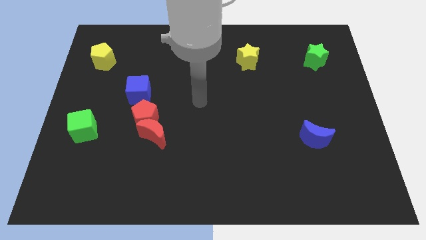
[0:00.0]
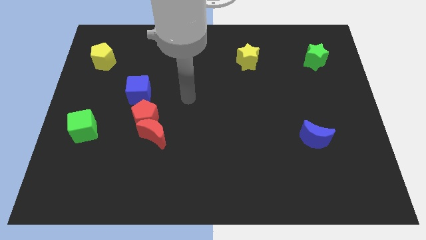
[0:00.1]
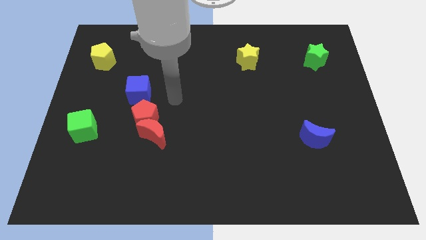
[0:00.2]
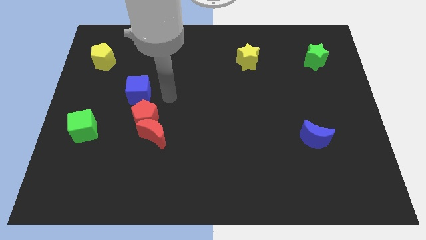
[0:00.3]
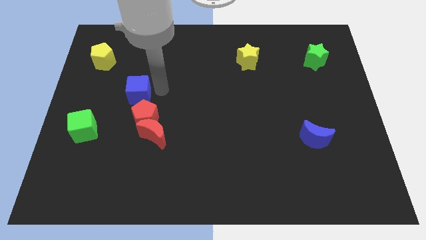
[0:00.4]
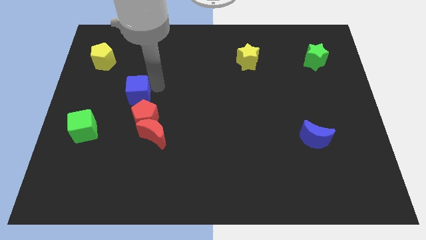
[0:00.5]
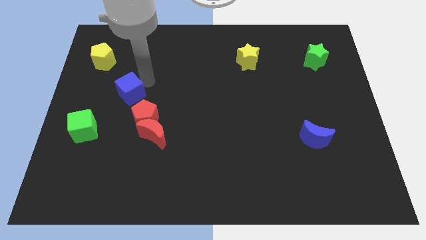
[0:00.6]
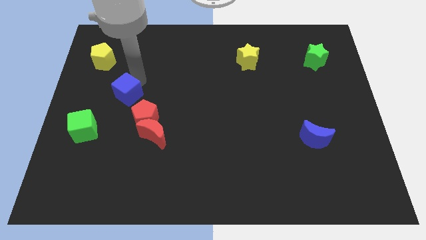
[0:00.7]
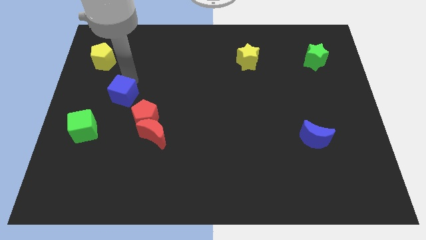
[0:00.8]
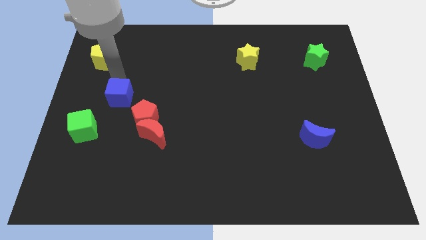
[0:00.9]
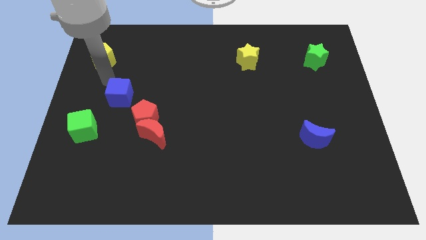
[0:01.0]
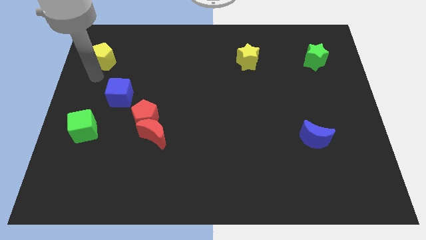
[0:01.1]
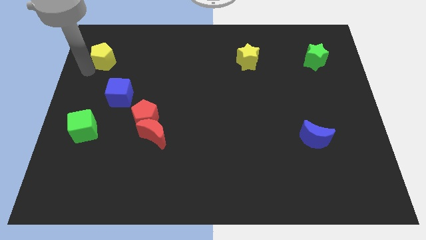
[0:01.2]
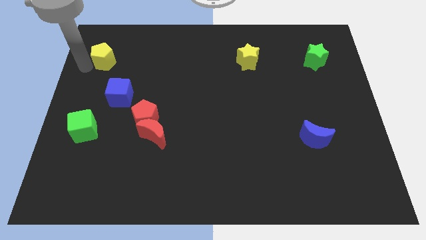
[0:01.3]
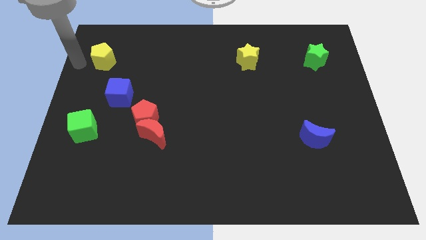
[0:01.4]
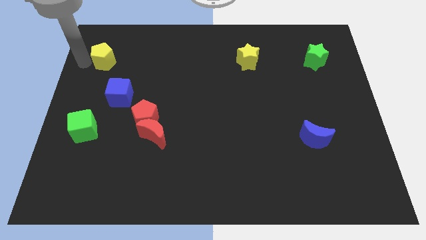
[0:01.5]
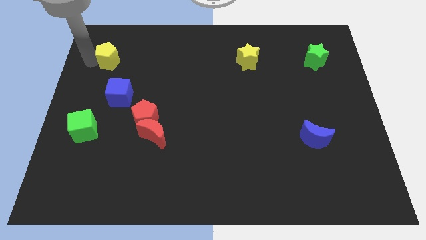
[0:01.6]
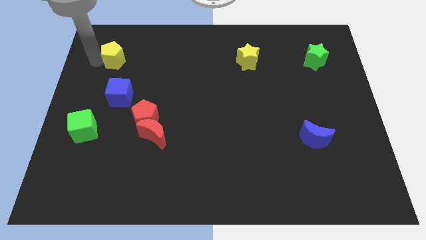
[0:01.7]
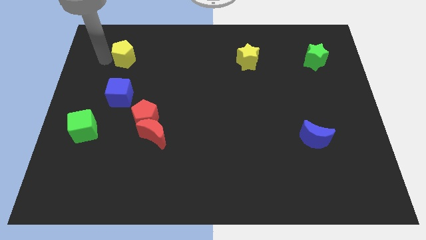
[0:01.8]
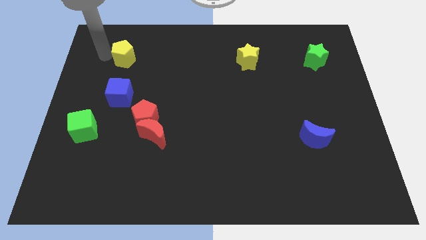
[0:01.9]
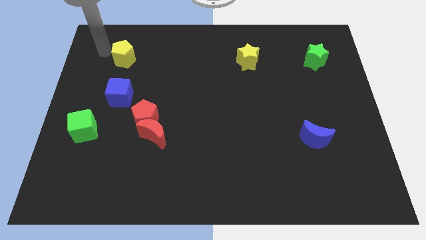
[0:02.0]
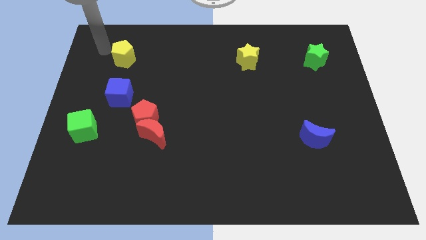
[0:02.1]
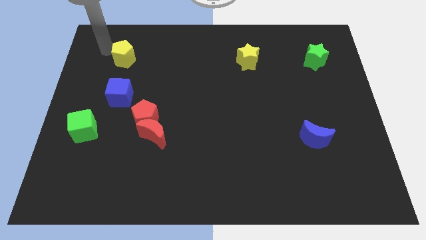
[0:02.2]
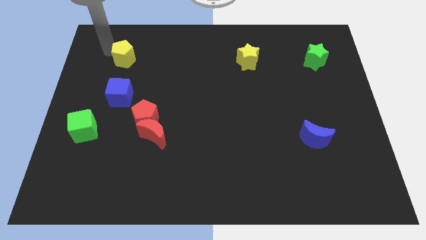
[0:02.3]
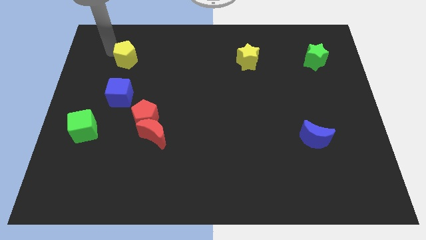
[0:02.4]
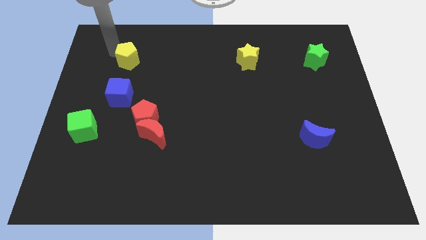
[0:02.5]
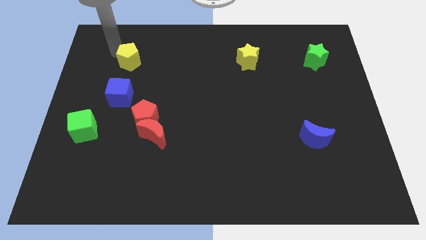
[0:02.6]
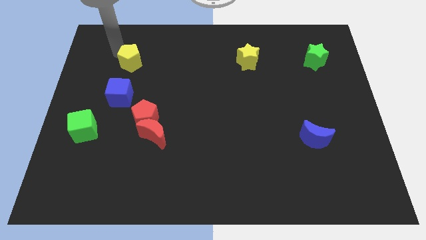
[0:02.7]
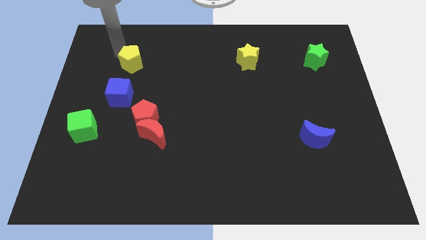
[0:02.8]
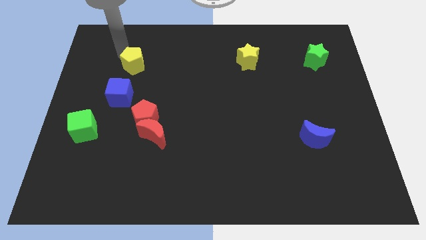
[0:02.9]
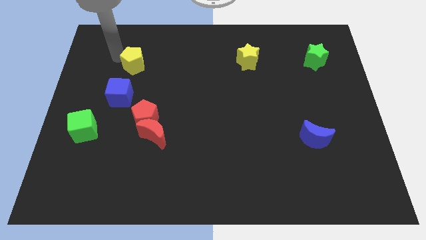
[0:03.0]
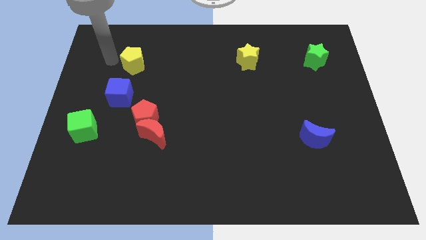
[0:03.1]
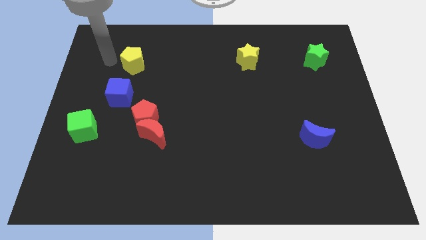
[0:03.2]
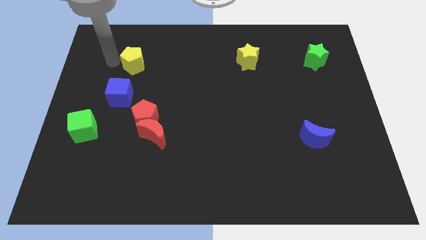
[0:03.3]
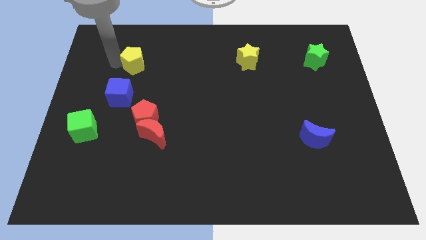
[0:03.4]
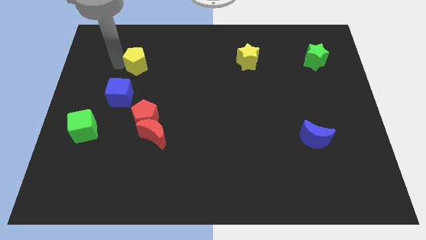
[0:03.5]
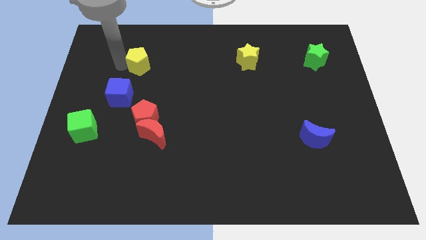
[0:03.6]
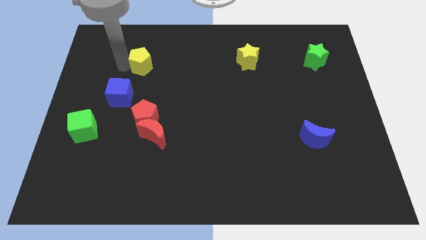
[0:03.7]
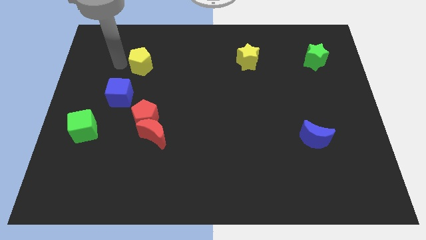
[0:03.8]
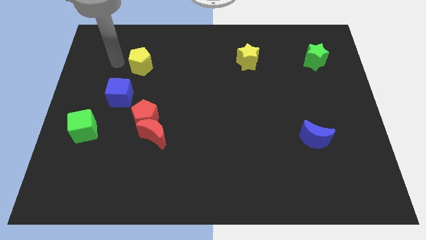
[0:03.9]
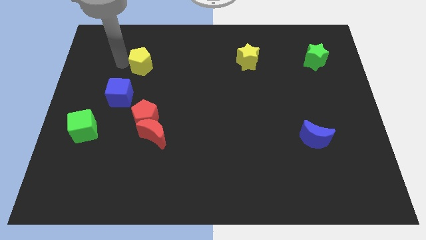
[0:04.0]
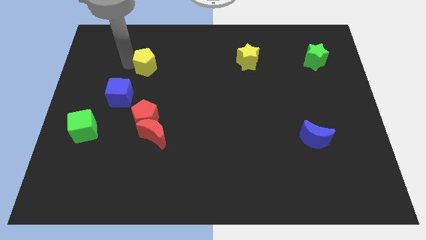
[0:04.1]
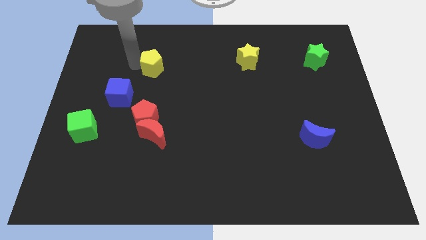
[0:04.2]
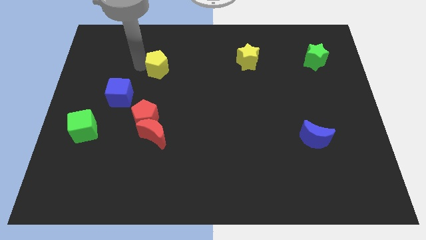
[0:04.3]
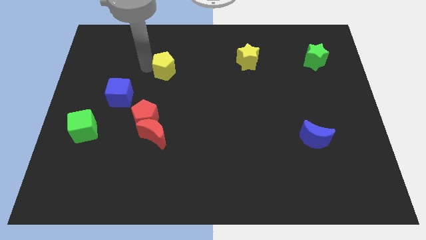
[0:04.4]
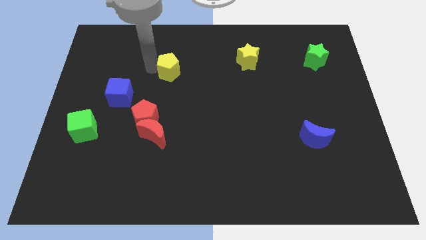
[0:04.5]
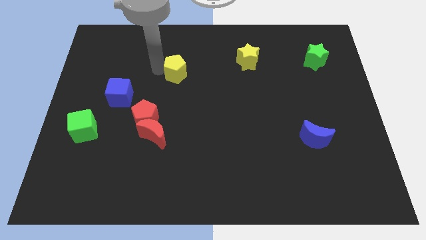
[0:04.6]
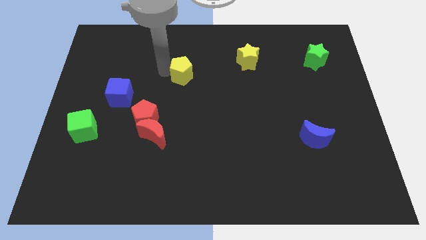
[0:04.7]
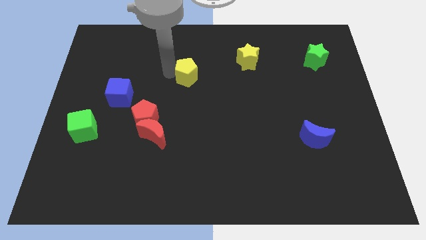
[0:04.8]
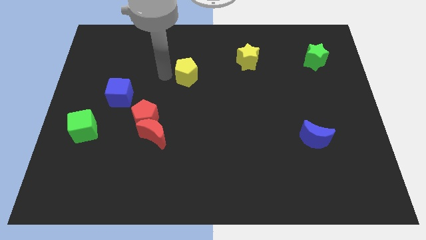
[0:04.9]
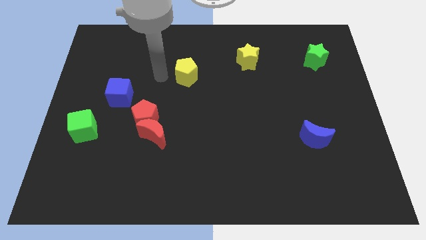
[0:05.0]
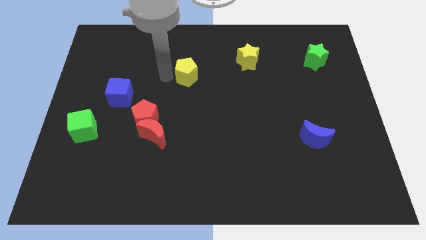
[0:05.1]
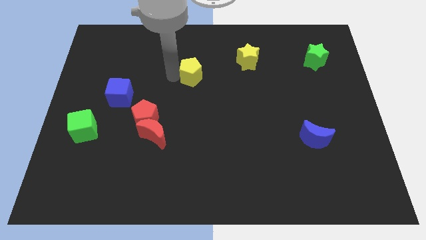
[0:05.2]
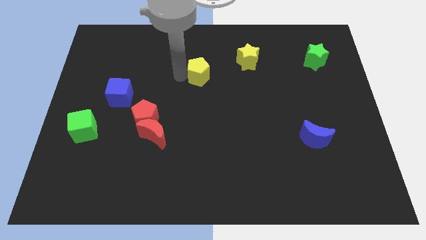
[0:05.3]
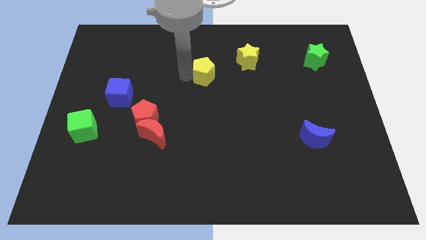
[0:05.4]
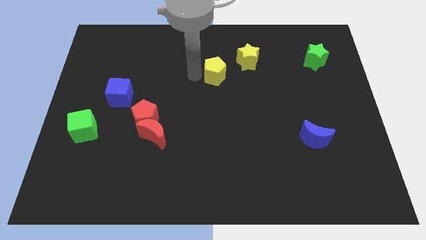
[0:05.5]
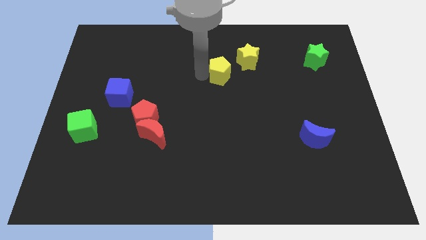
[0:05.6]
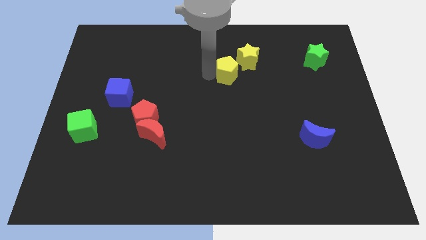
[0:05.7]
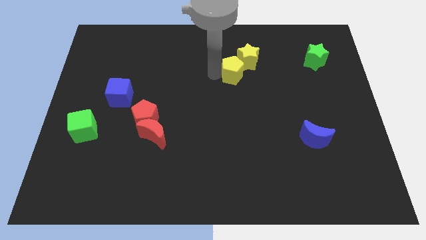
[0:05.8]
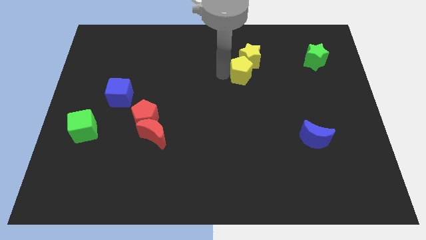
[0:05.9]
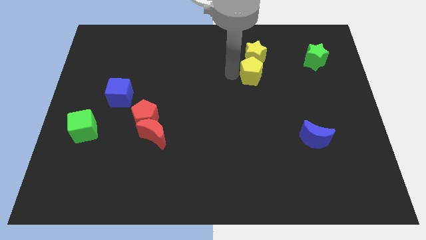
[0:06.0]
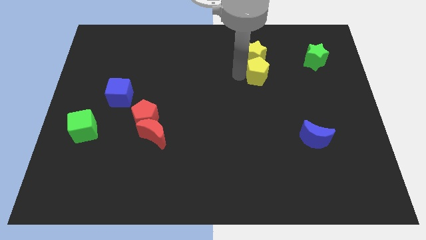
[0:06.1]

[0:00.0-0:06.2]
slide the yellow pentagon diagonally down and to the right of the yellow star
